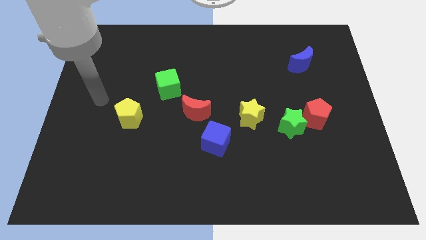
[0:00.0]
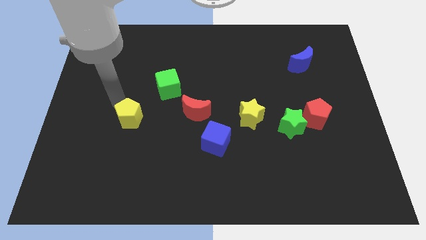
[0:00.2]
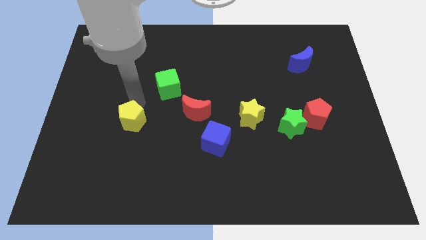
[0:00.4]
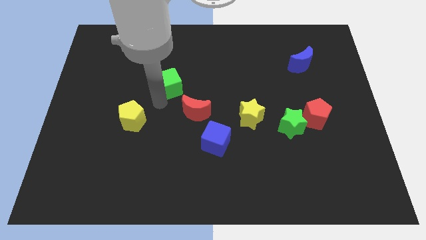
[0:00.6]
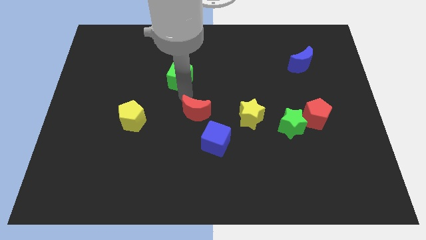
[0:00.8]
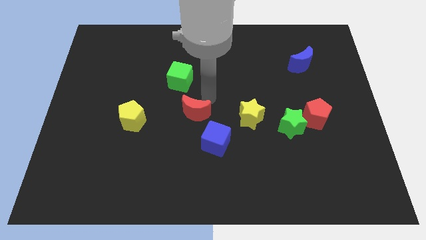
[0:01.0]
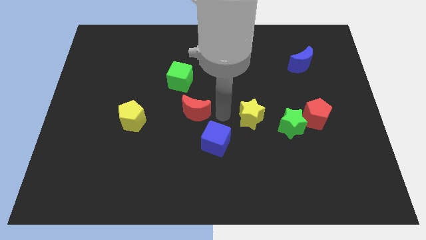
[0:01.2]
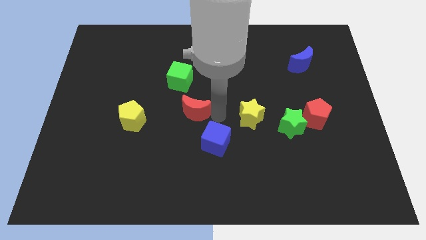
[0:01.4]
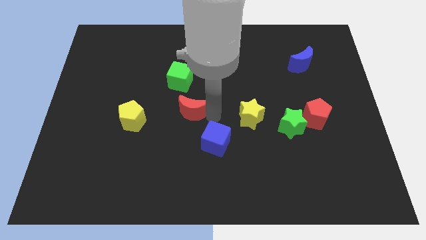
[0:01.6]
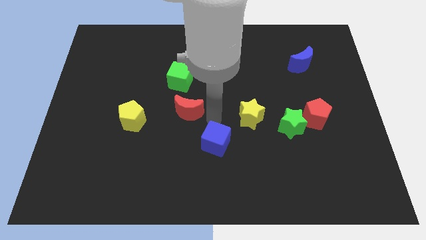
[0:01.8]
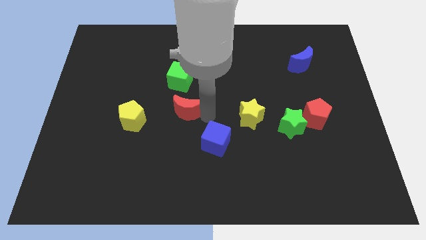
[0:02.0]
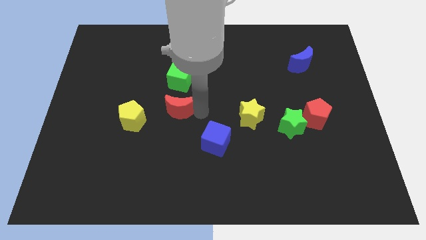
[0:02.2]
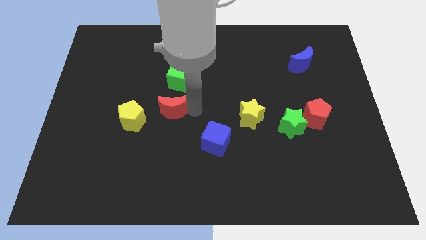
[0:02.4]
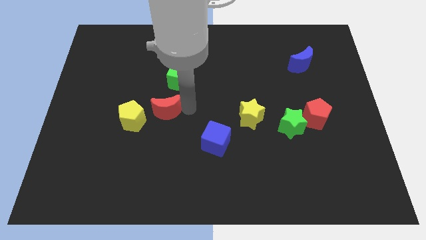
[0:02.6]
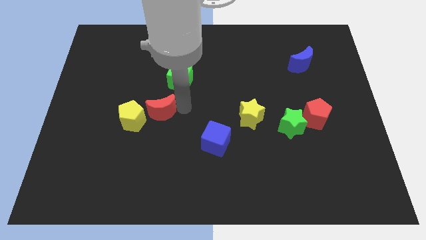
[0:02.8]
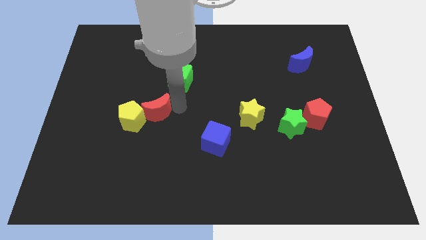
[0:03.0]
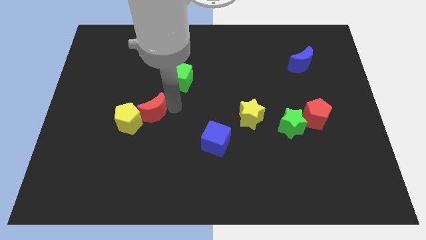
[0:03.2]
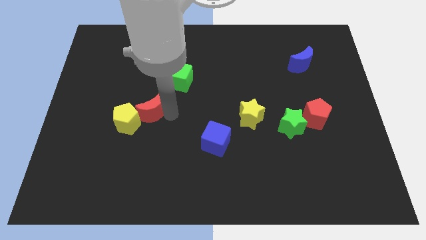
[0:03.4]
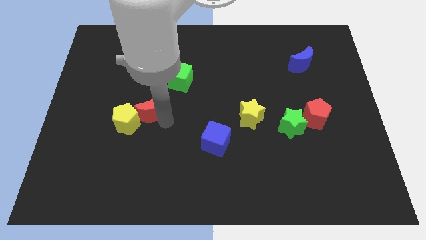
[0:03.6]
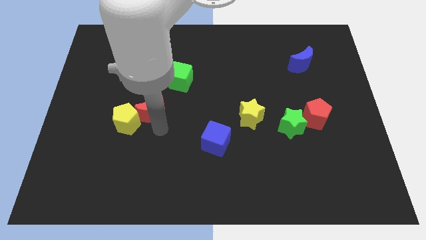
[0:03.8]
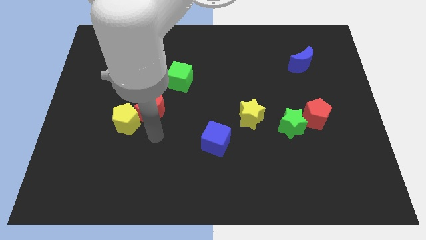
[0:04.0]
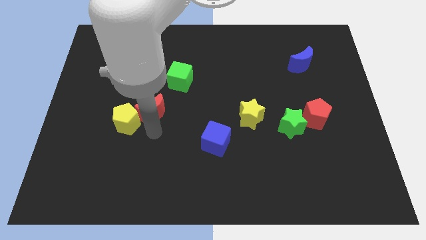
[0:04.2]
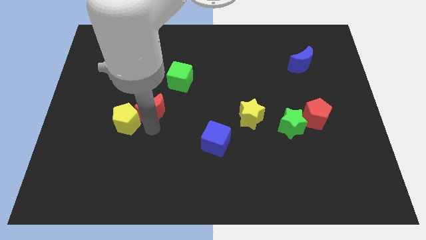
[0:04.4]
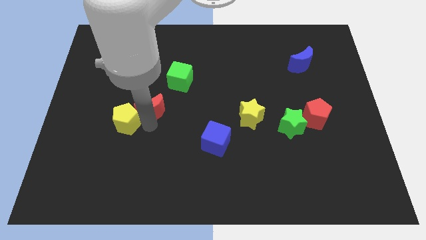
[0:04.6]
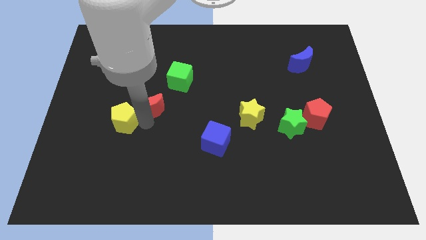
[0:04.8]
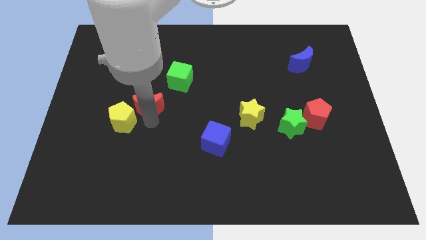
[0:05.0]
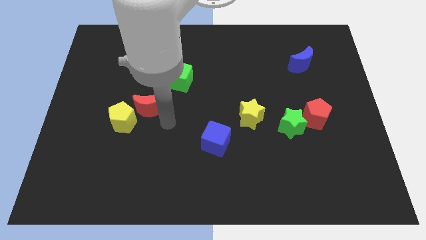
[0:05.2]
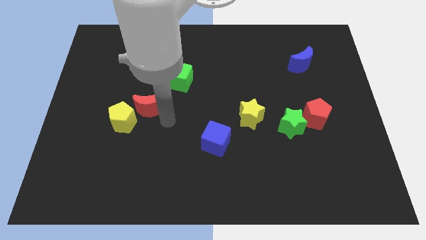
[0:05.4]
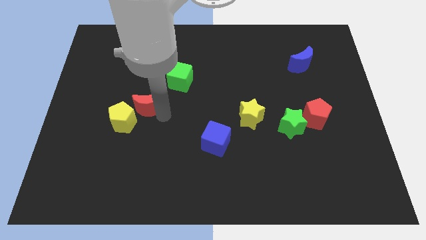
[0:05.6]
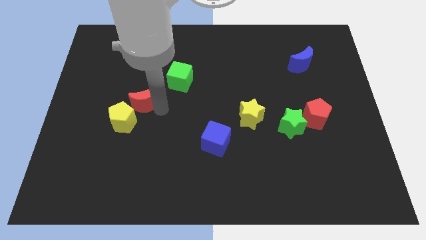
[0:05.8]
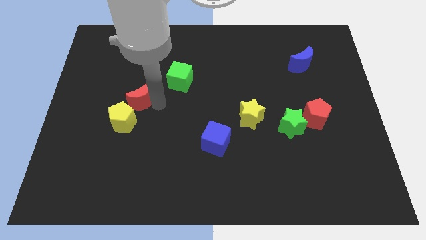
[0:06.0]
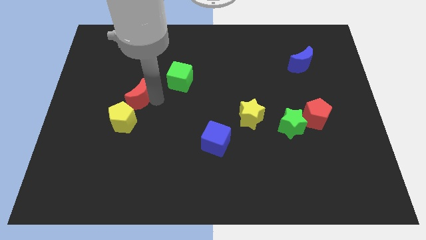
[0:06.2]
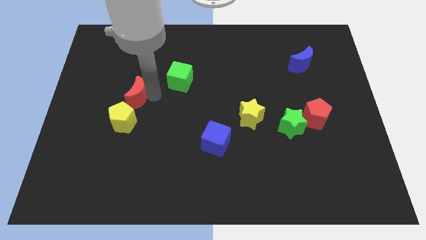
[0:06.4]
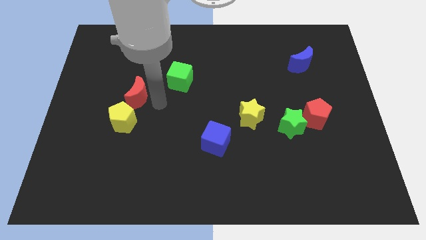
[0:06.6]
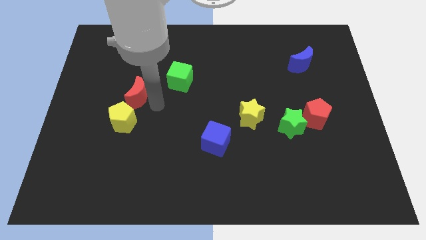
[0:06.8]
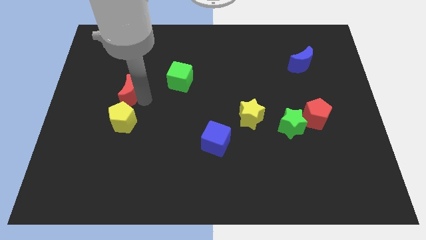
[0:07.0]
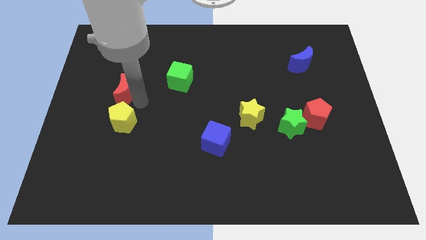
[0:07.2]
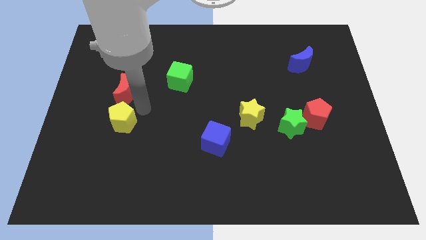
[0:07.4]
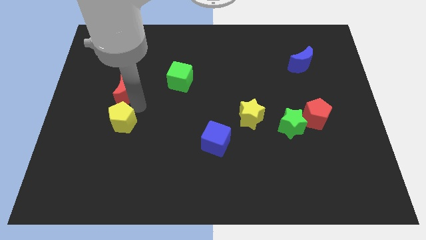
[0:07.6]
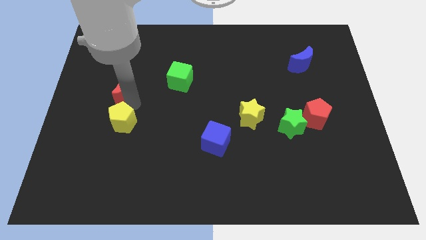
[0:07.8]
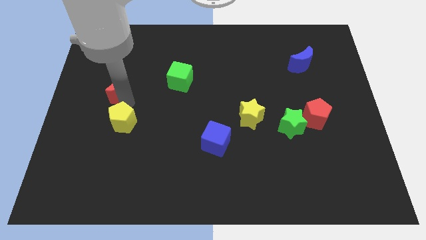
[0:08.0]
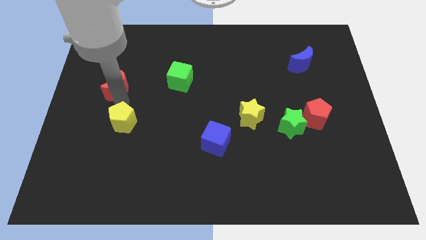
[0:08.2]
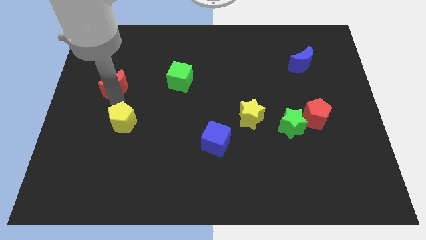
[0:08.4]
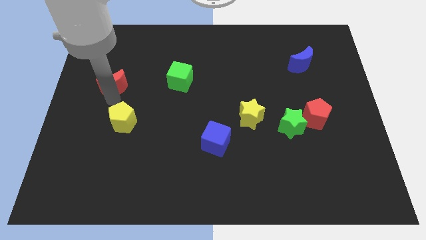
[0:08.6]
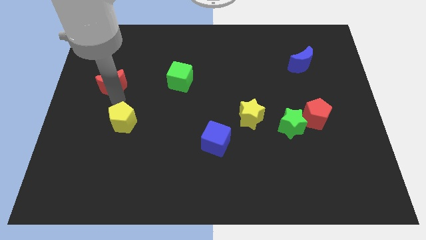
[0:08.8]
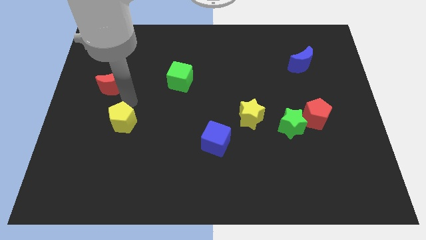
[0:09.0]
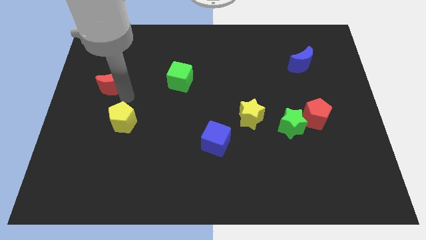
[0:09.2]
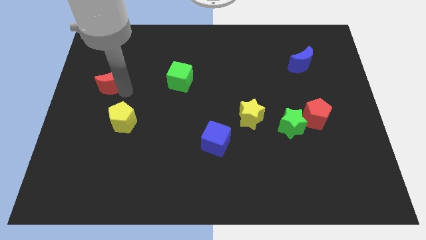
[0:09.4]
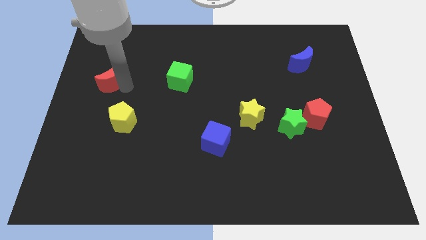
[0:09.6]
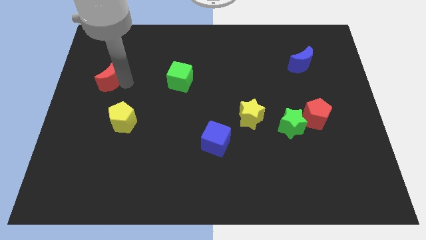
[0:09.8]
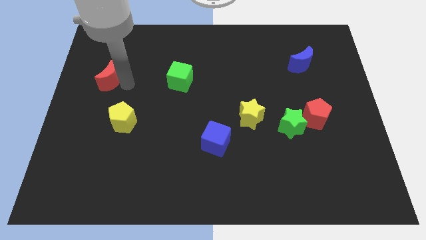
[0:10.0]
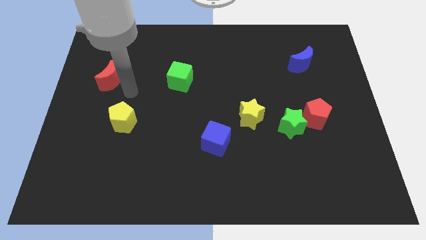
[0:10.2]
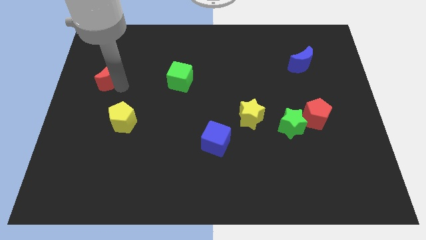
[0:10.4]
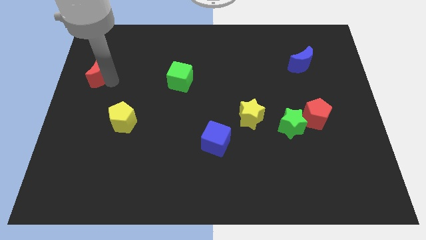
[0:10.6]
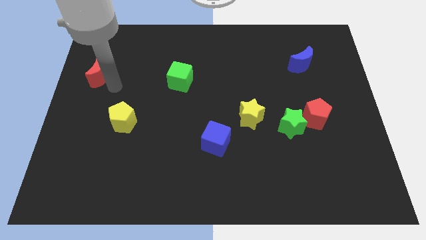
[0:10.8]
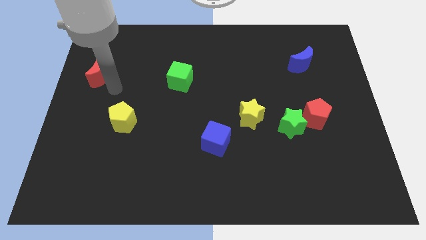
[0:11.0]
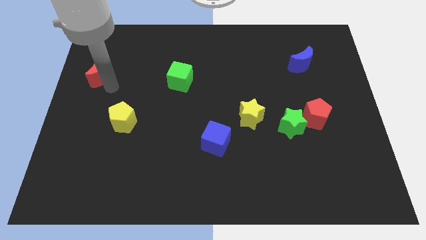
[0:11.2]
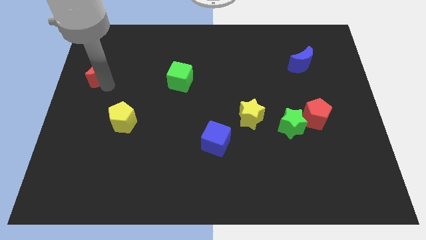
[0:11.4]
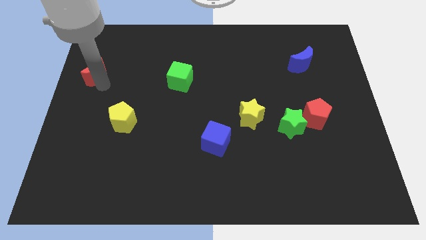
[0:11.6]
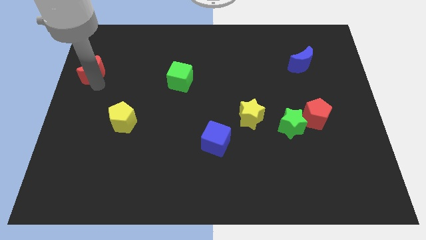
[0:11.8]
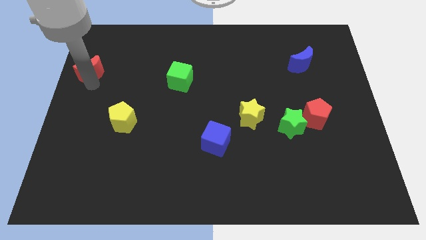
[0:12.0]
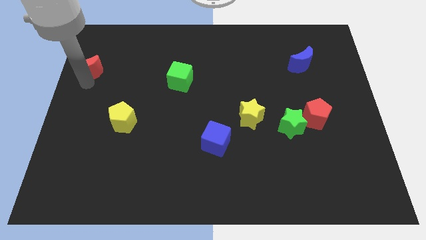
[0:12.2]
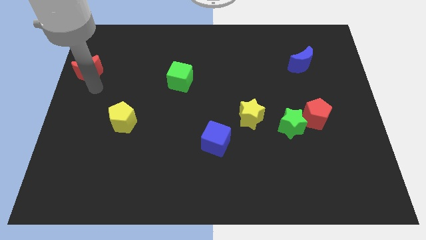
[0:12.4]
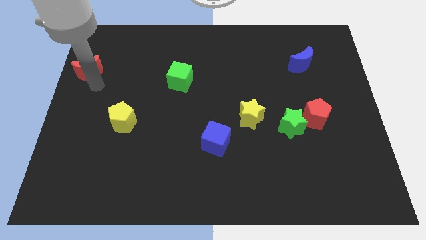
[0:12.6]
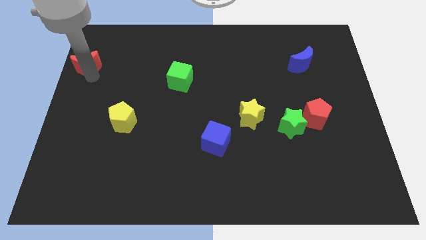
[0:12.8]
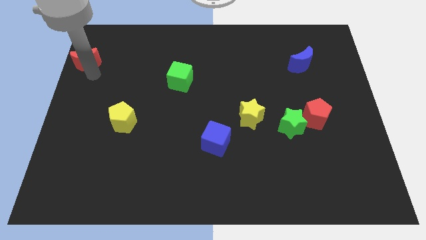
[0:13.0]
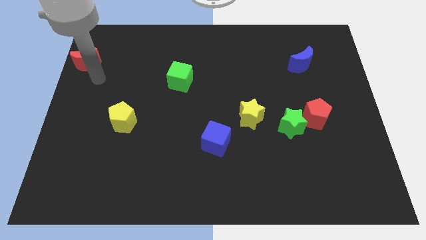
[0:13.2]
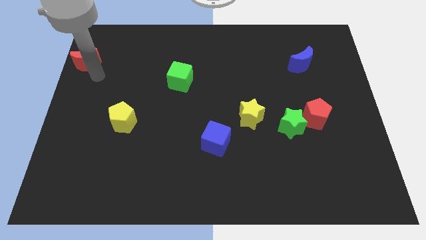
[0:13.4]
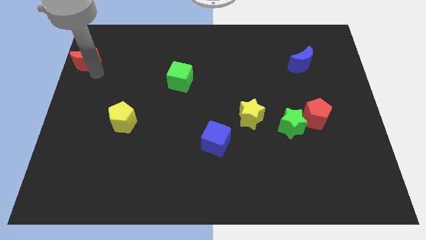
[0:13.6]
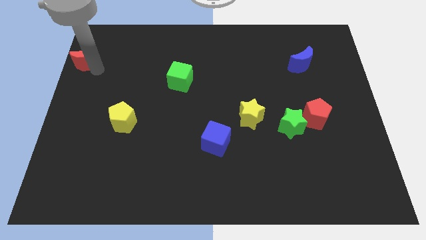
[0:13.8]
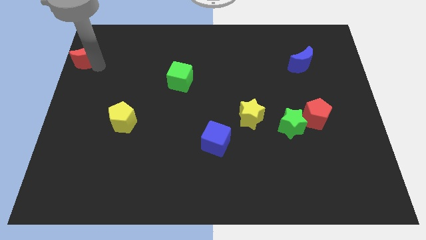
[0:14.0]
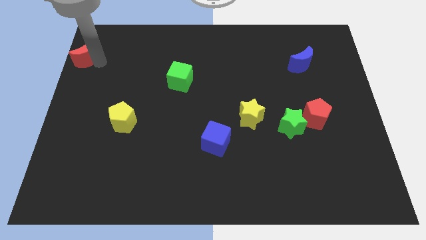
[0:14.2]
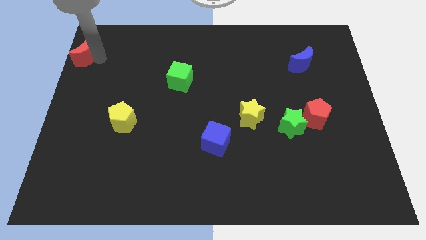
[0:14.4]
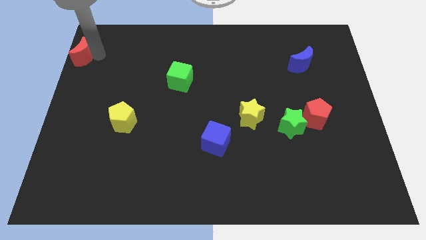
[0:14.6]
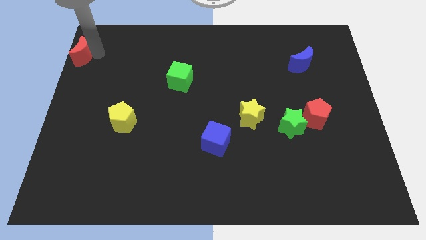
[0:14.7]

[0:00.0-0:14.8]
move the red moon to the top left

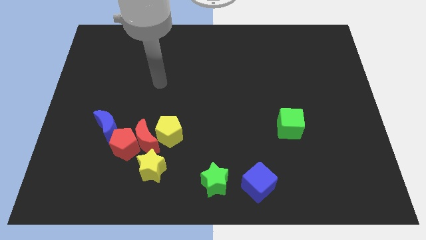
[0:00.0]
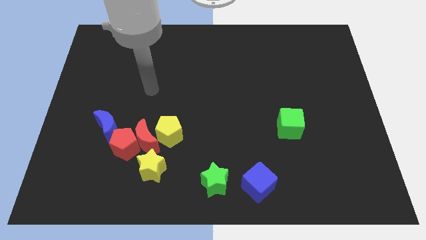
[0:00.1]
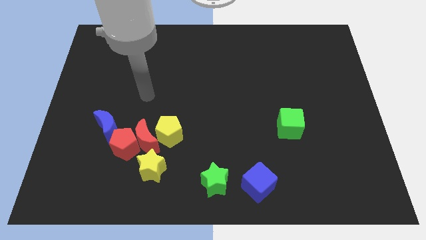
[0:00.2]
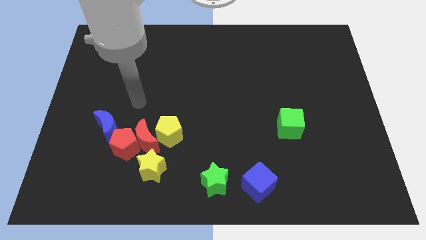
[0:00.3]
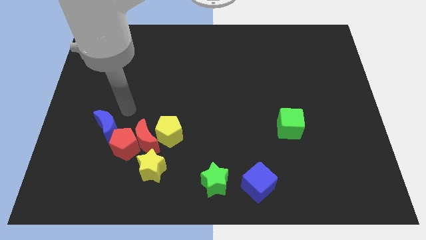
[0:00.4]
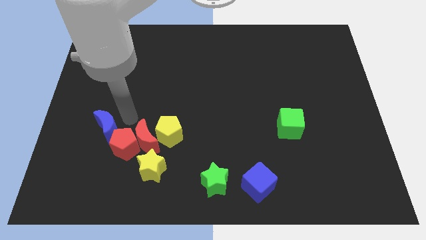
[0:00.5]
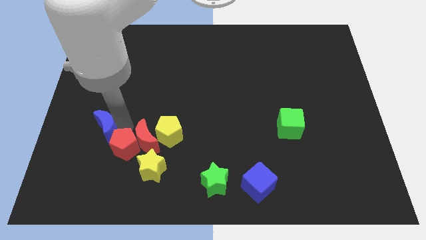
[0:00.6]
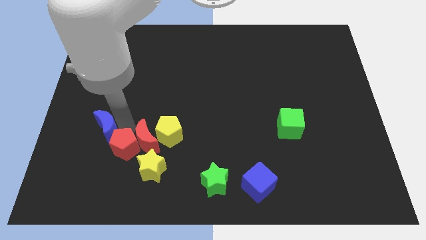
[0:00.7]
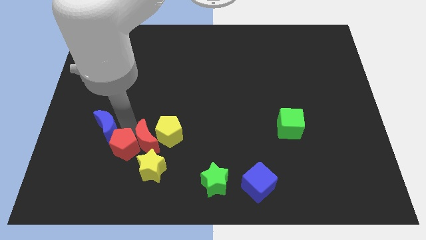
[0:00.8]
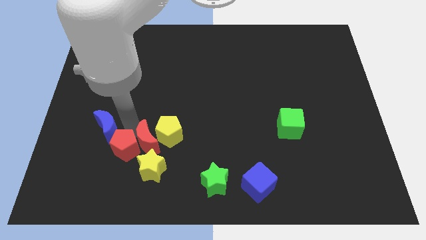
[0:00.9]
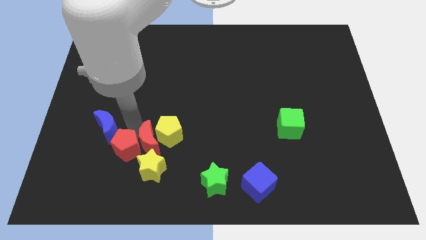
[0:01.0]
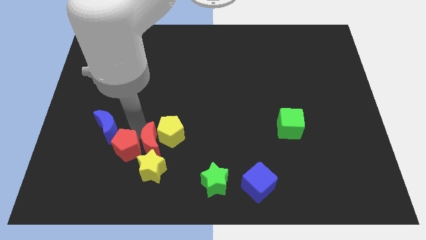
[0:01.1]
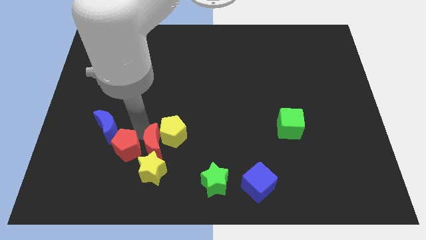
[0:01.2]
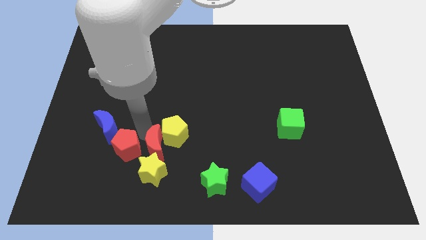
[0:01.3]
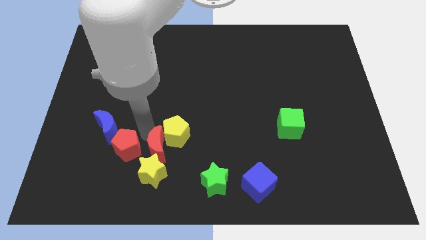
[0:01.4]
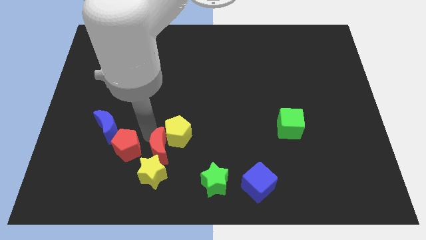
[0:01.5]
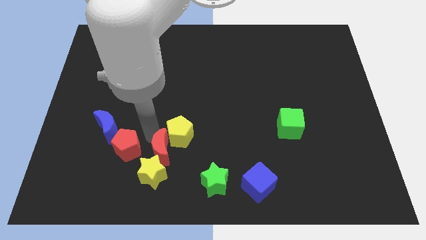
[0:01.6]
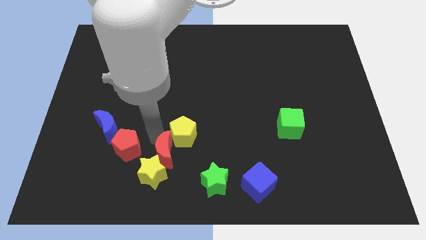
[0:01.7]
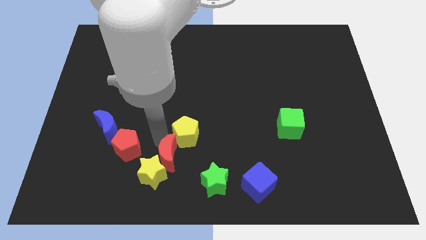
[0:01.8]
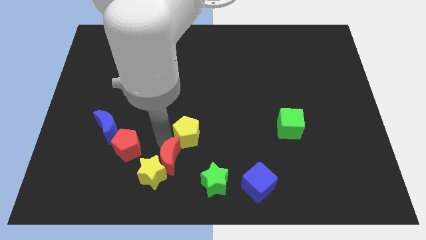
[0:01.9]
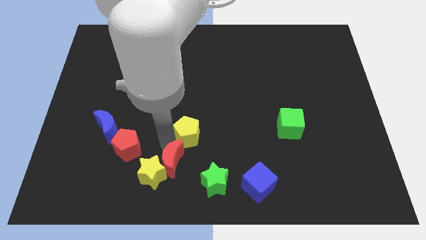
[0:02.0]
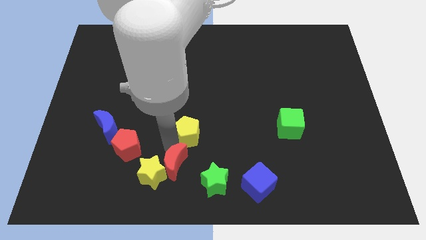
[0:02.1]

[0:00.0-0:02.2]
push the red moon to the bottom
